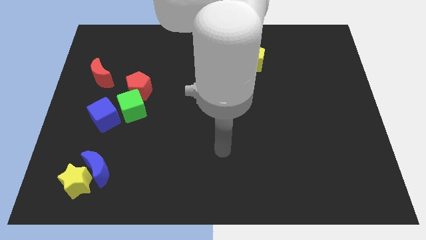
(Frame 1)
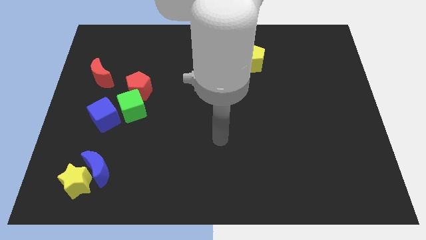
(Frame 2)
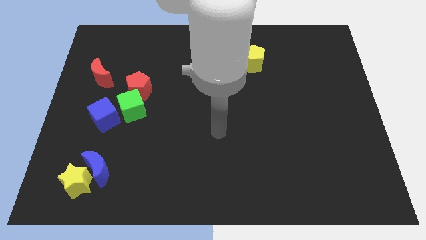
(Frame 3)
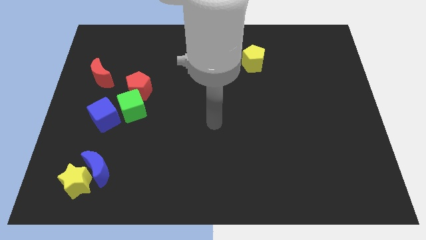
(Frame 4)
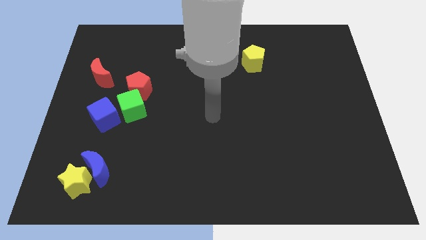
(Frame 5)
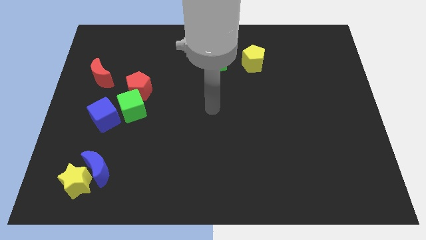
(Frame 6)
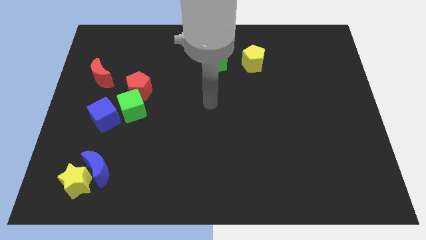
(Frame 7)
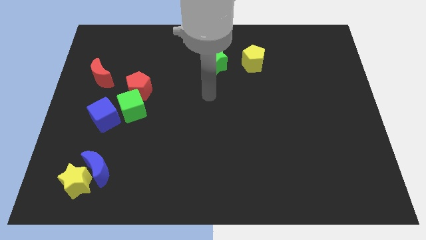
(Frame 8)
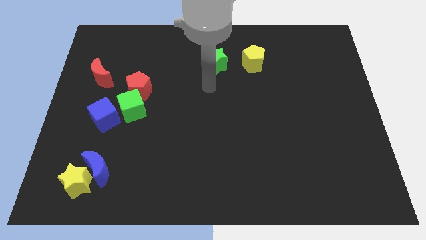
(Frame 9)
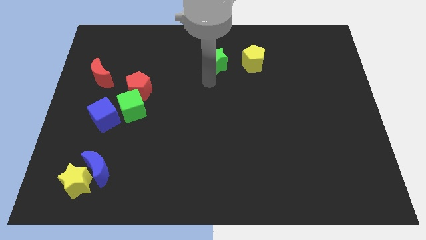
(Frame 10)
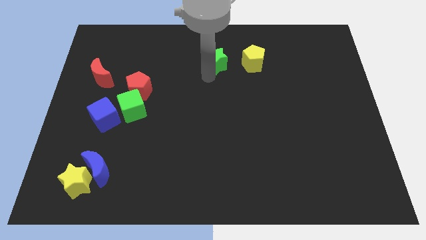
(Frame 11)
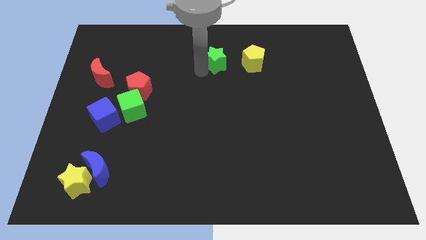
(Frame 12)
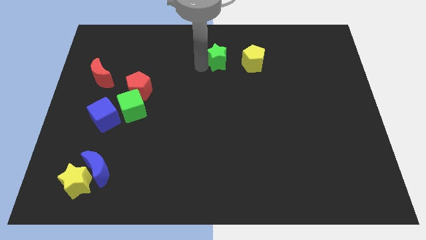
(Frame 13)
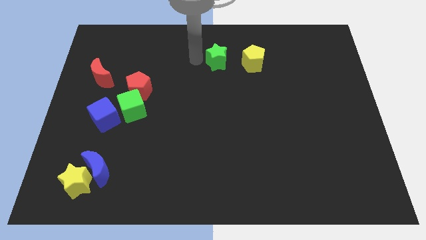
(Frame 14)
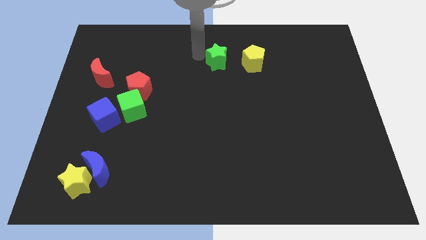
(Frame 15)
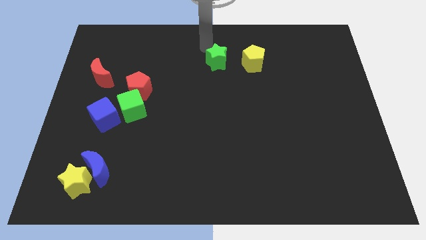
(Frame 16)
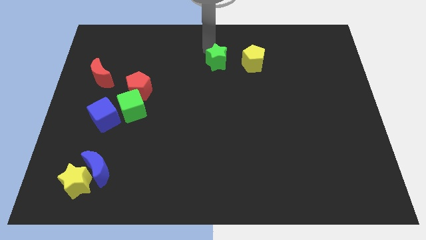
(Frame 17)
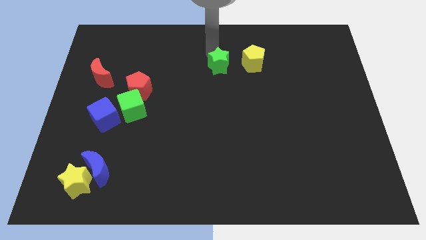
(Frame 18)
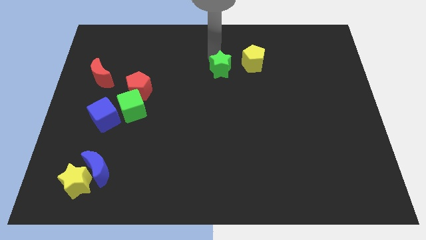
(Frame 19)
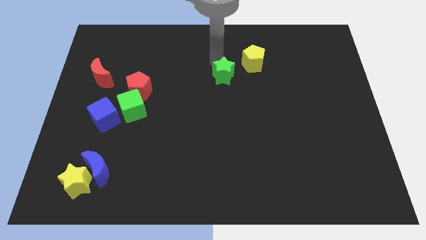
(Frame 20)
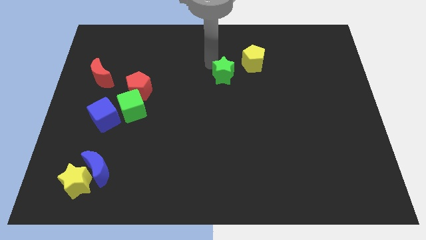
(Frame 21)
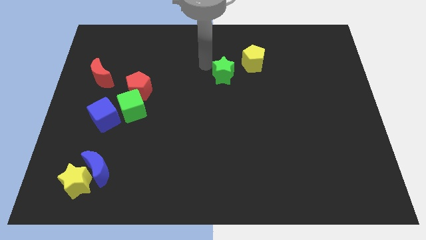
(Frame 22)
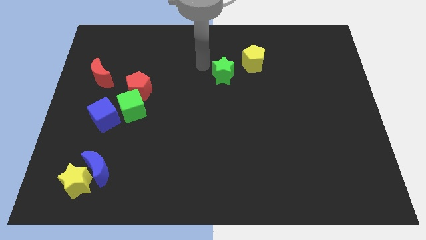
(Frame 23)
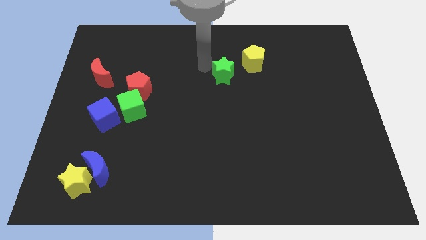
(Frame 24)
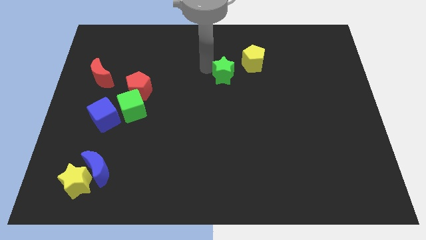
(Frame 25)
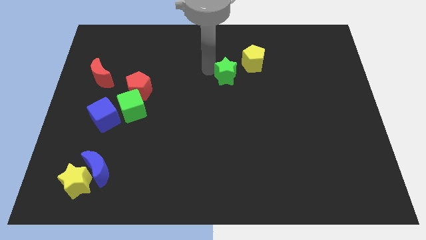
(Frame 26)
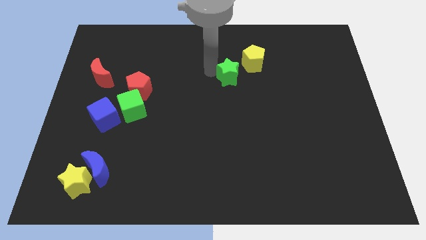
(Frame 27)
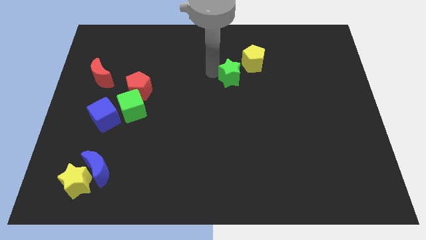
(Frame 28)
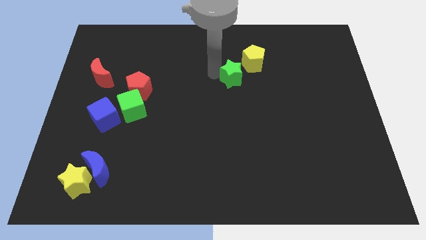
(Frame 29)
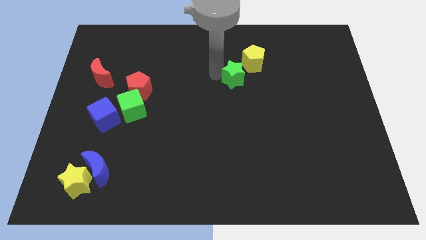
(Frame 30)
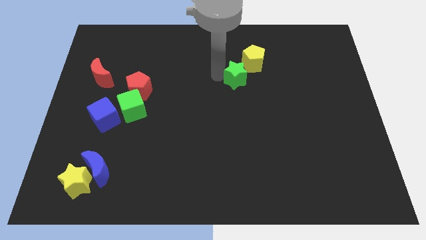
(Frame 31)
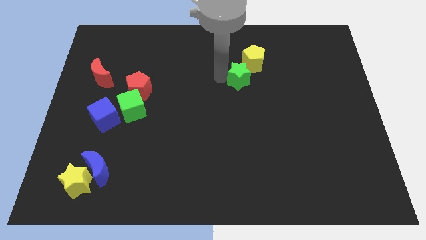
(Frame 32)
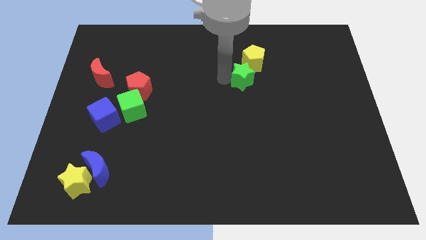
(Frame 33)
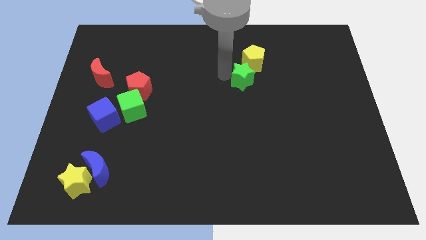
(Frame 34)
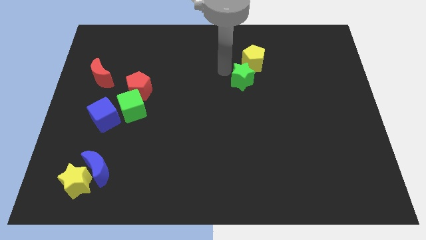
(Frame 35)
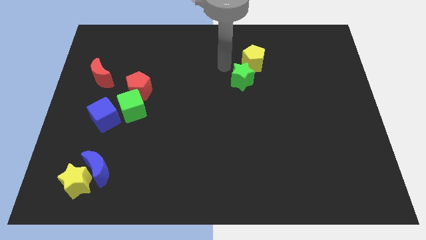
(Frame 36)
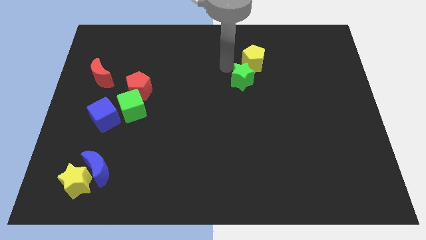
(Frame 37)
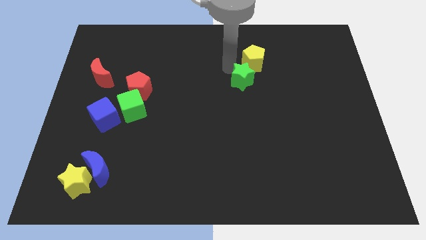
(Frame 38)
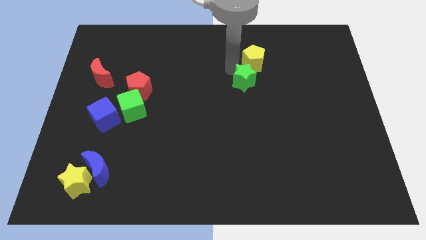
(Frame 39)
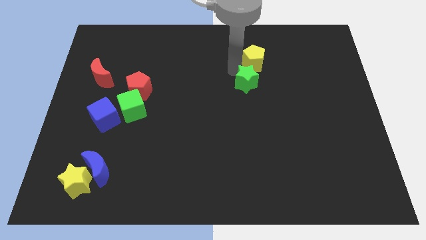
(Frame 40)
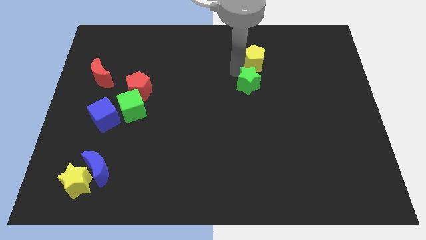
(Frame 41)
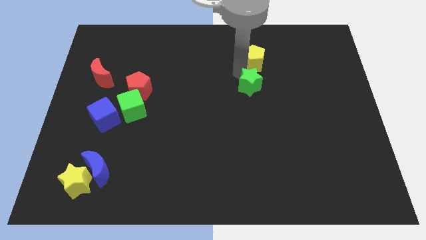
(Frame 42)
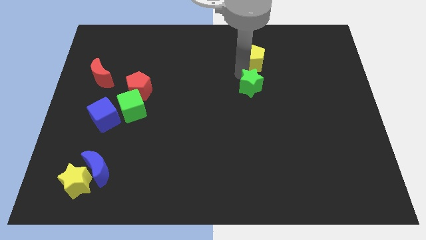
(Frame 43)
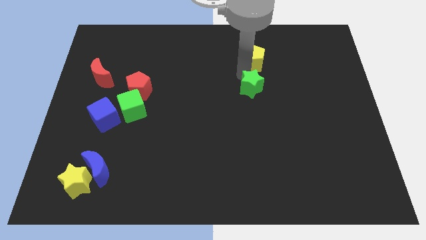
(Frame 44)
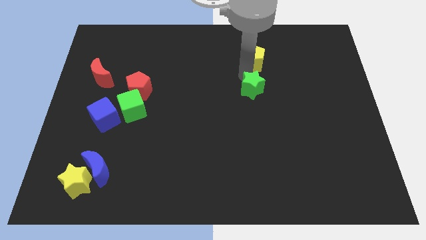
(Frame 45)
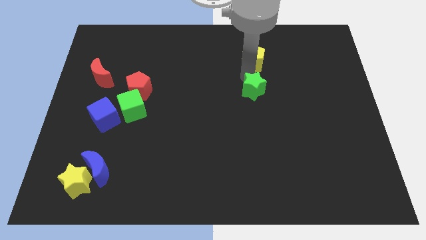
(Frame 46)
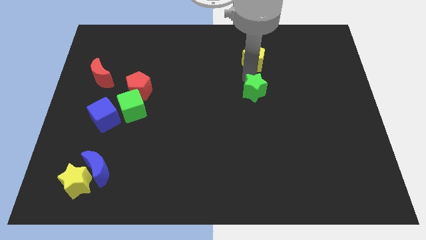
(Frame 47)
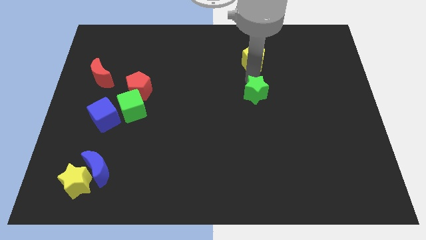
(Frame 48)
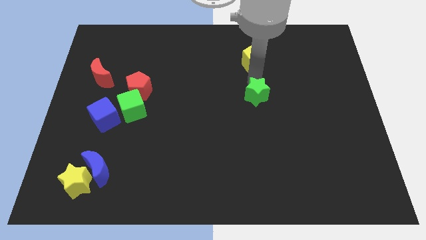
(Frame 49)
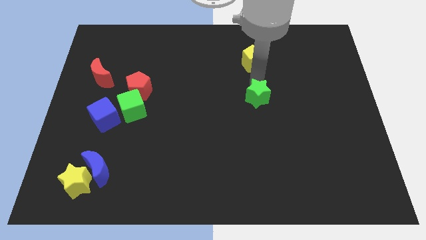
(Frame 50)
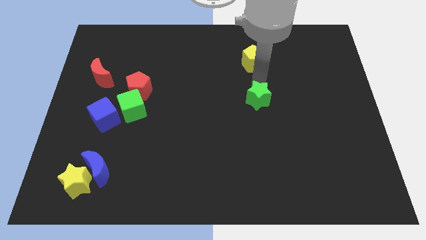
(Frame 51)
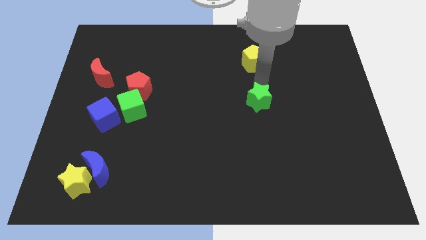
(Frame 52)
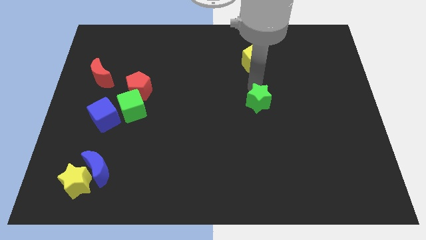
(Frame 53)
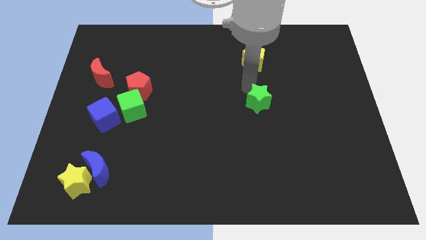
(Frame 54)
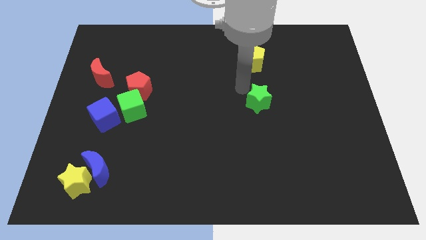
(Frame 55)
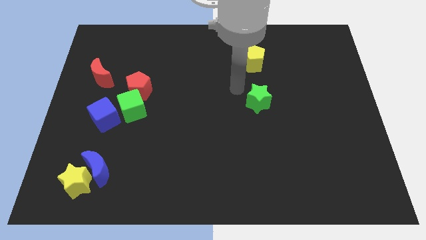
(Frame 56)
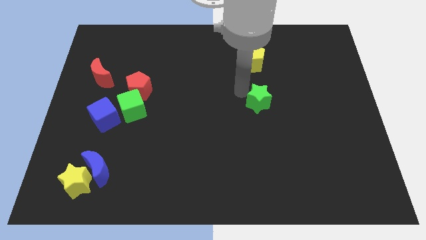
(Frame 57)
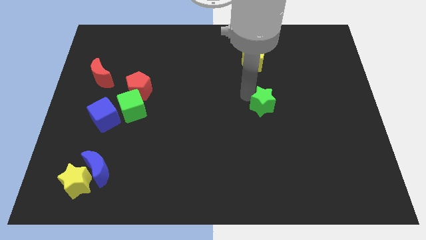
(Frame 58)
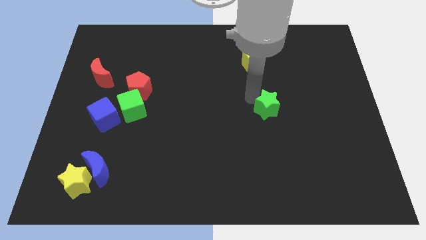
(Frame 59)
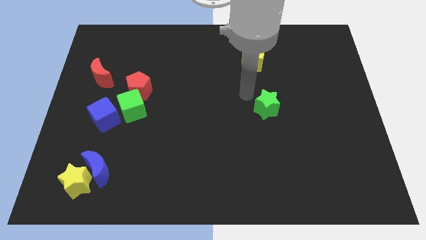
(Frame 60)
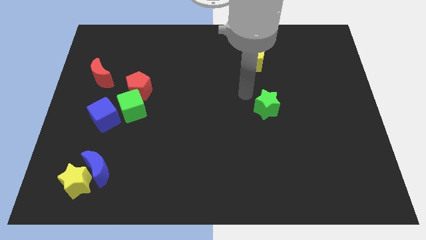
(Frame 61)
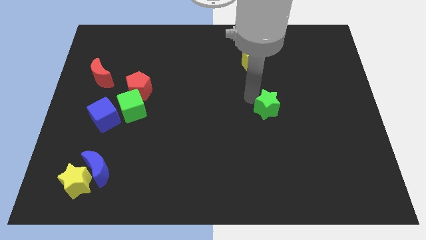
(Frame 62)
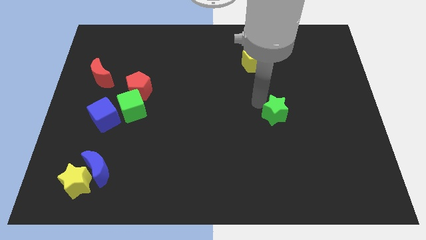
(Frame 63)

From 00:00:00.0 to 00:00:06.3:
move the green star downwards and to the right

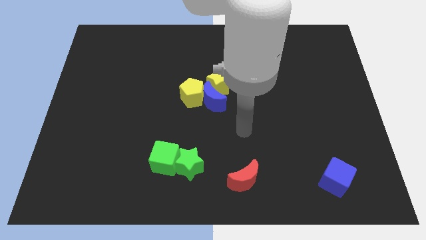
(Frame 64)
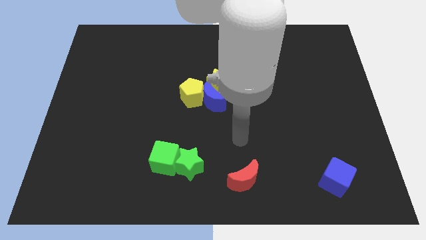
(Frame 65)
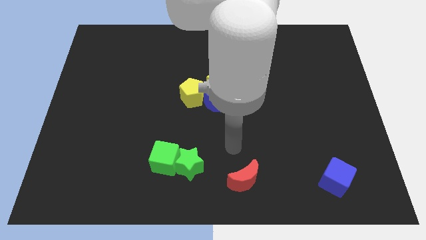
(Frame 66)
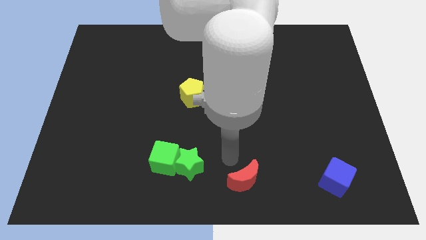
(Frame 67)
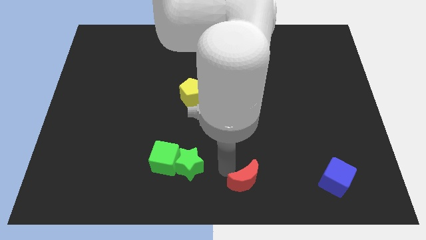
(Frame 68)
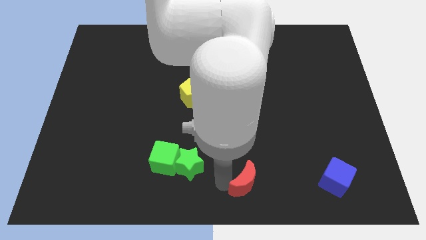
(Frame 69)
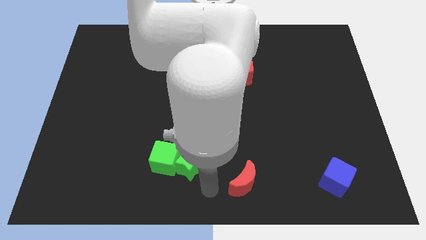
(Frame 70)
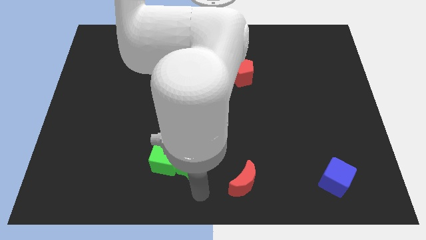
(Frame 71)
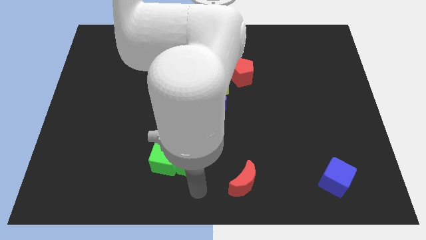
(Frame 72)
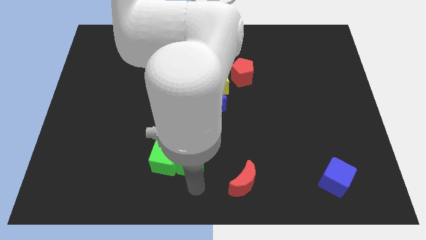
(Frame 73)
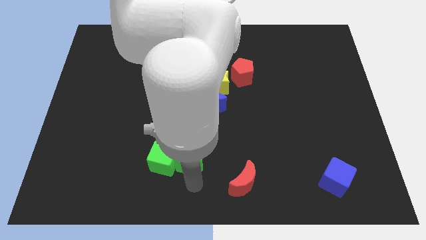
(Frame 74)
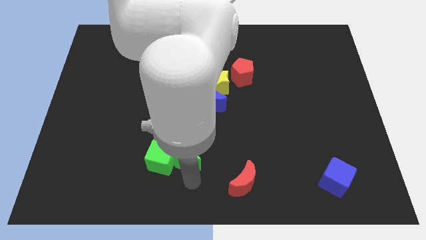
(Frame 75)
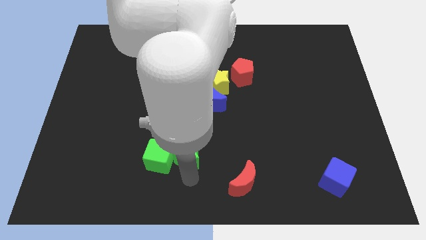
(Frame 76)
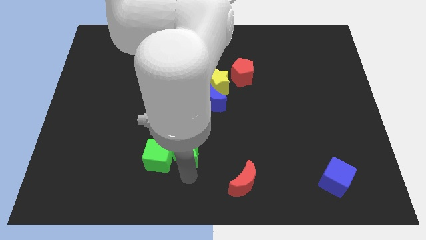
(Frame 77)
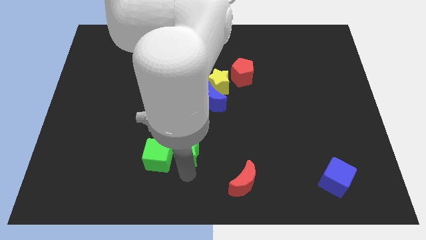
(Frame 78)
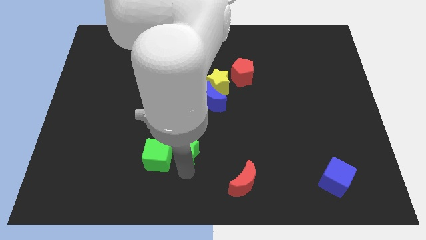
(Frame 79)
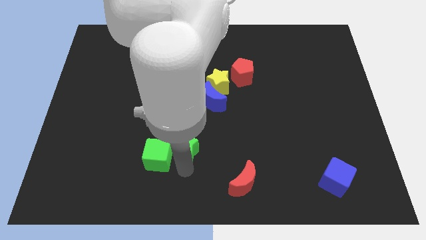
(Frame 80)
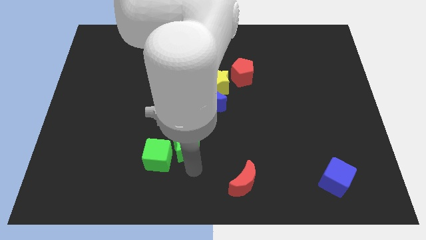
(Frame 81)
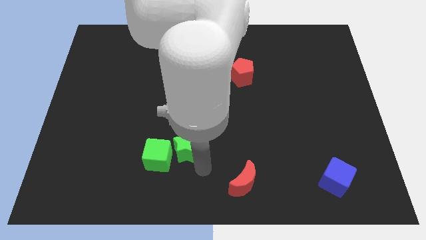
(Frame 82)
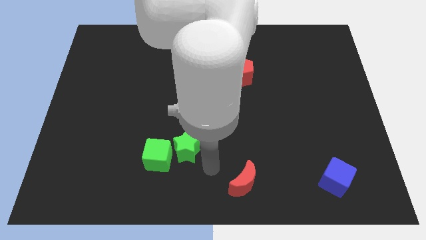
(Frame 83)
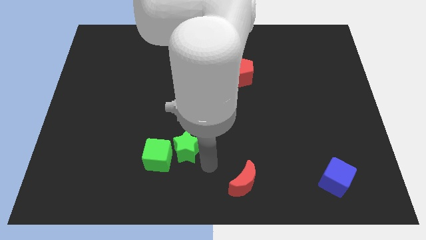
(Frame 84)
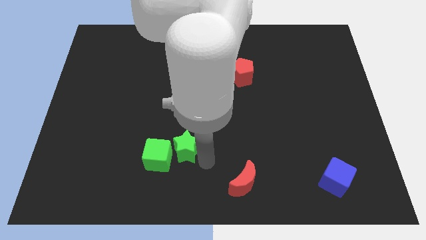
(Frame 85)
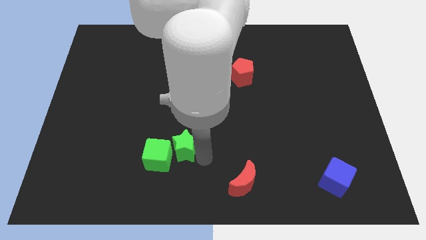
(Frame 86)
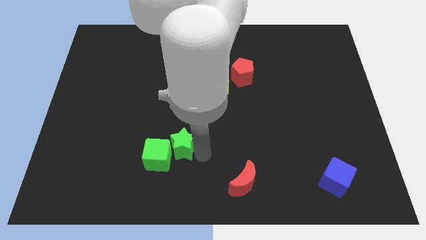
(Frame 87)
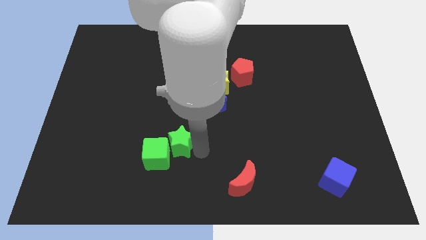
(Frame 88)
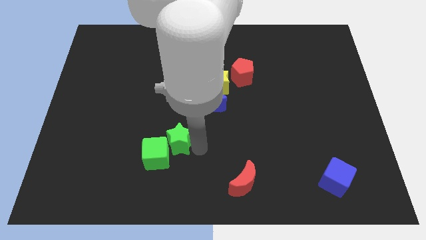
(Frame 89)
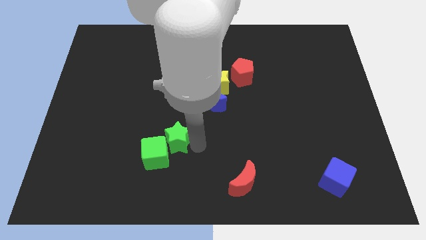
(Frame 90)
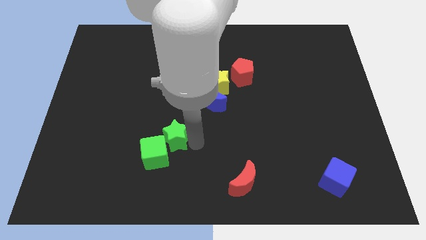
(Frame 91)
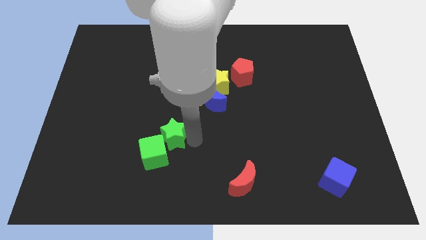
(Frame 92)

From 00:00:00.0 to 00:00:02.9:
move the green star somewhat diagonally up and to the left
